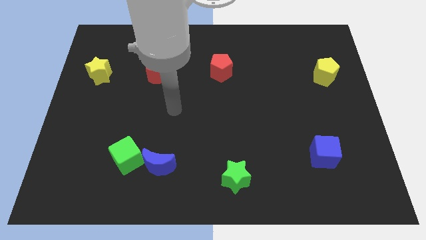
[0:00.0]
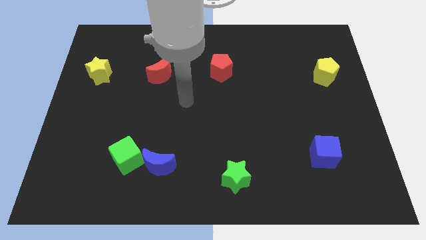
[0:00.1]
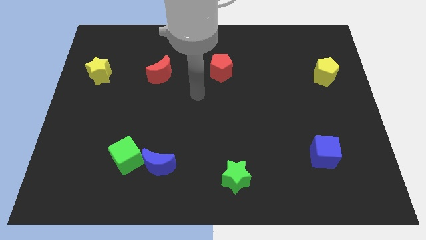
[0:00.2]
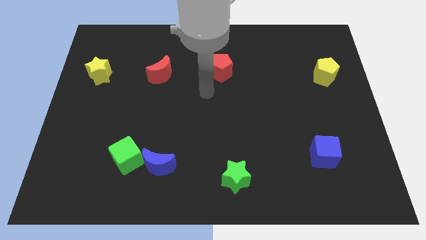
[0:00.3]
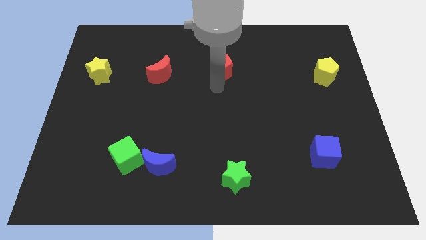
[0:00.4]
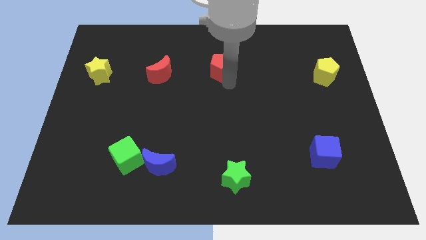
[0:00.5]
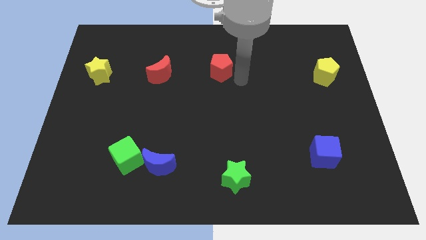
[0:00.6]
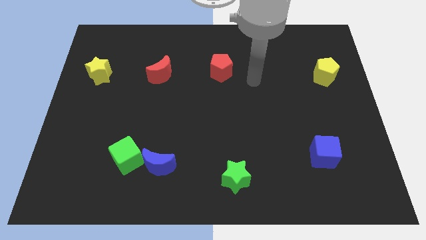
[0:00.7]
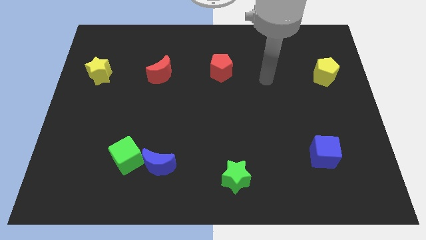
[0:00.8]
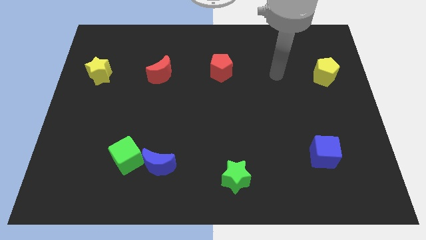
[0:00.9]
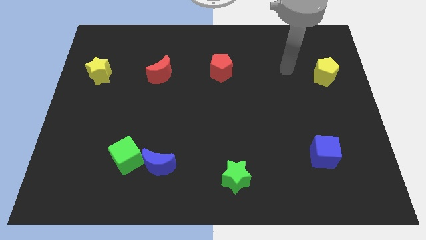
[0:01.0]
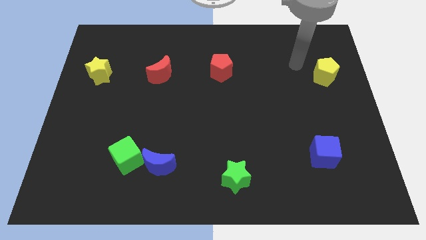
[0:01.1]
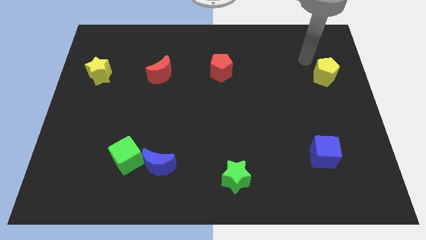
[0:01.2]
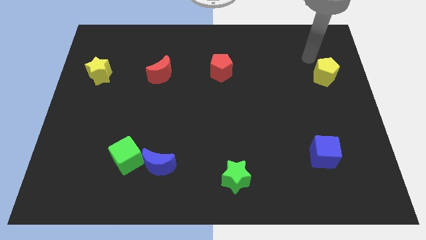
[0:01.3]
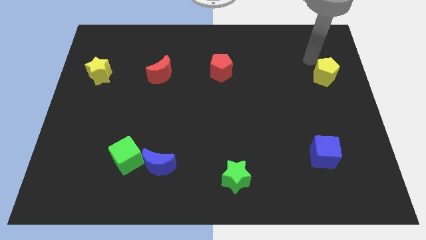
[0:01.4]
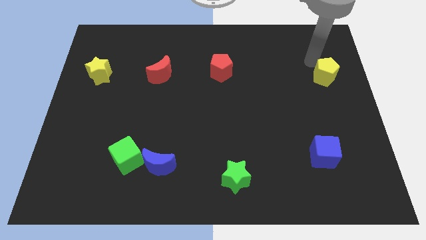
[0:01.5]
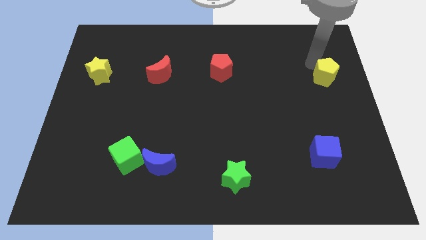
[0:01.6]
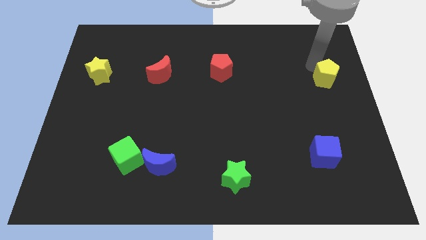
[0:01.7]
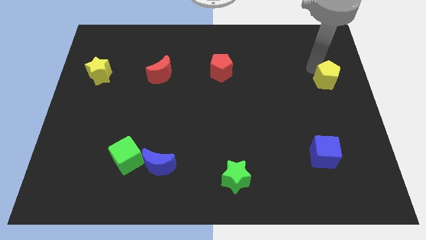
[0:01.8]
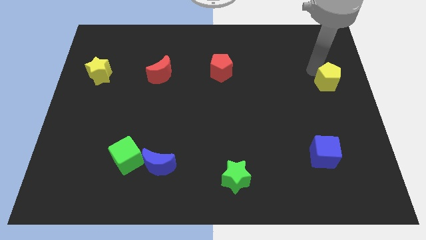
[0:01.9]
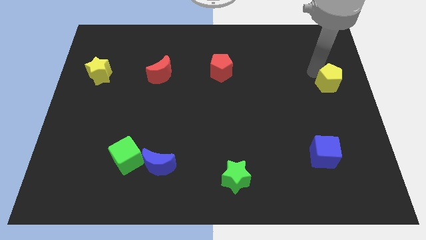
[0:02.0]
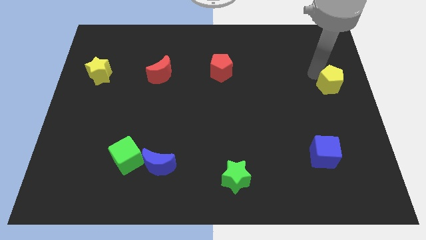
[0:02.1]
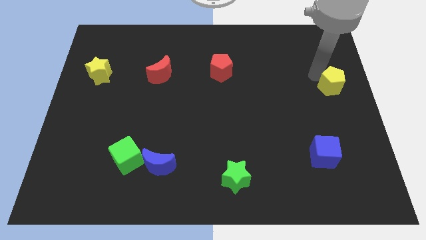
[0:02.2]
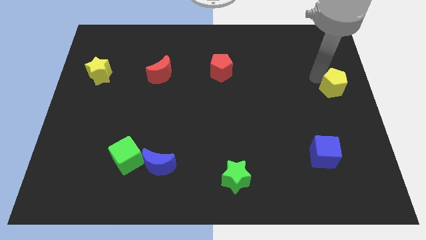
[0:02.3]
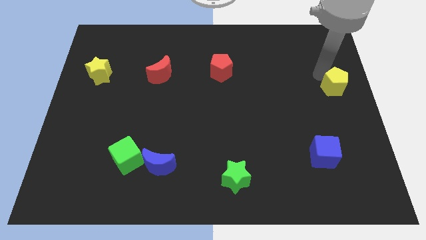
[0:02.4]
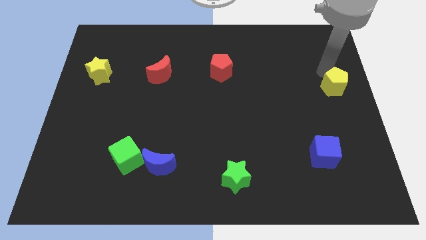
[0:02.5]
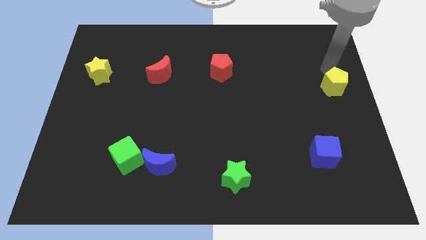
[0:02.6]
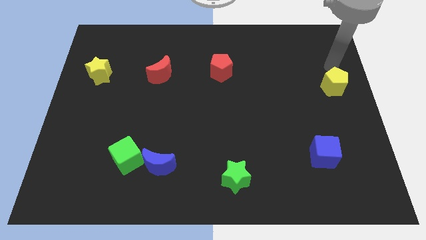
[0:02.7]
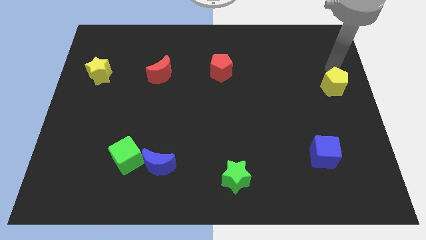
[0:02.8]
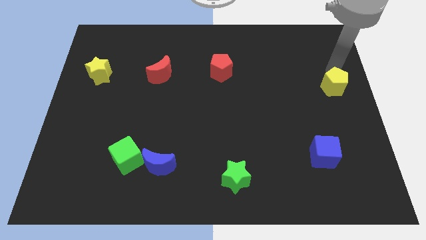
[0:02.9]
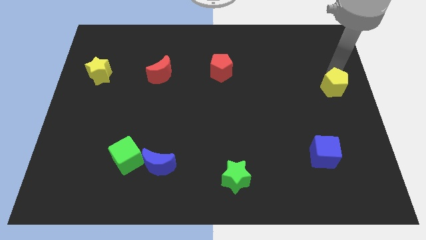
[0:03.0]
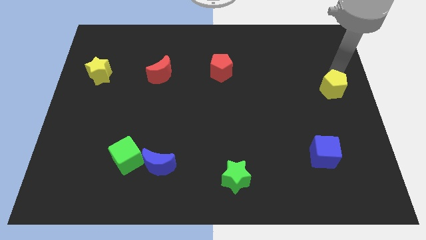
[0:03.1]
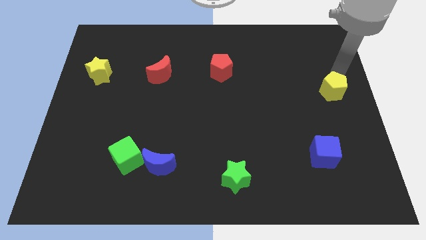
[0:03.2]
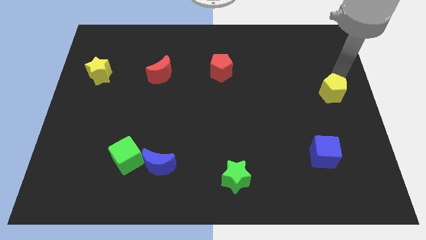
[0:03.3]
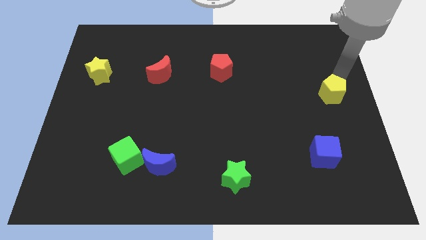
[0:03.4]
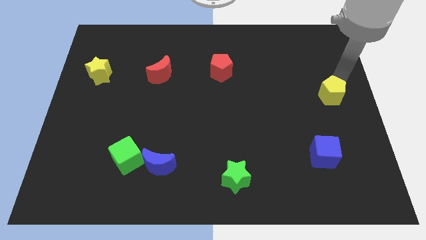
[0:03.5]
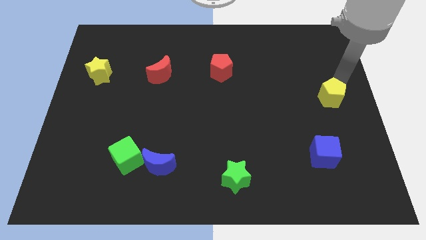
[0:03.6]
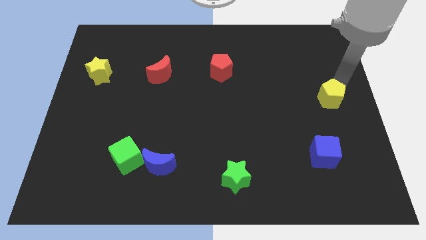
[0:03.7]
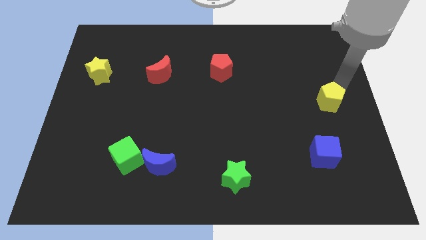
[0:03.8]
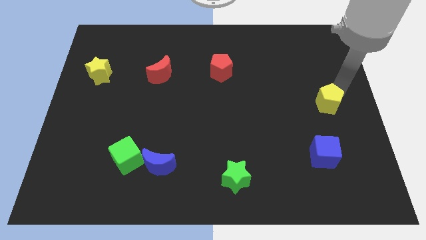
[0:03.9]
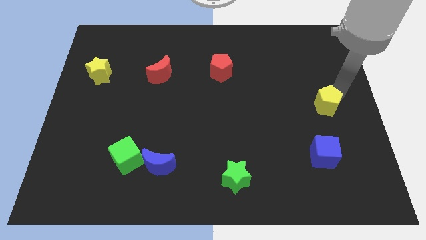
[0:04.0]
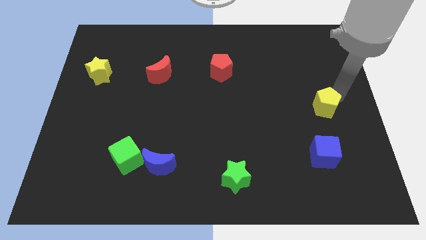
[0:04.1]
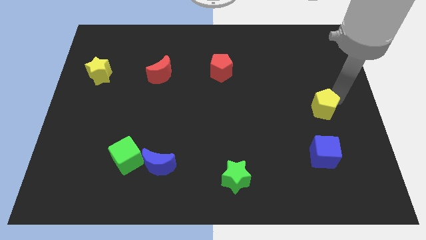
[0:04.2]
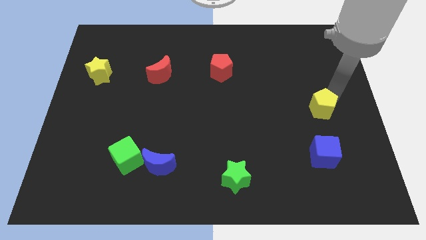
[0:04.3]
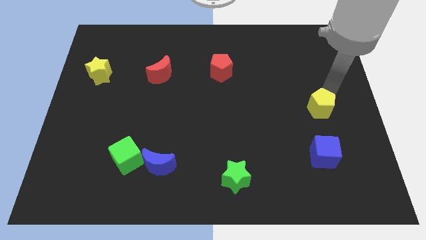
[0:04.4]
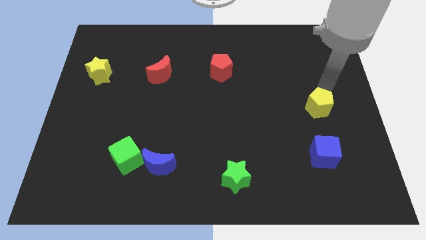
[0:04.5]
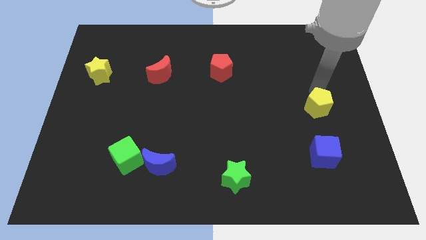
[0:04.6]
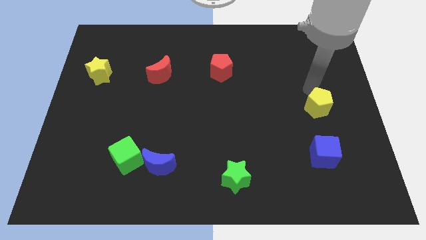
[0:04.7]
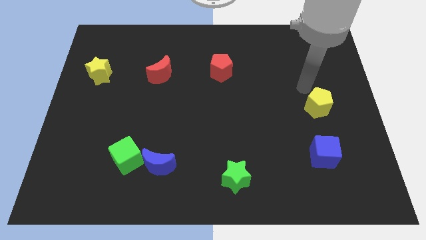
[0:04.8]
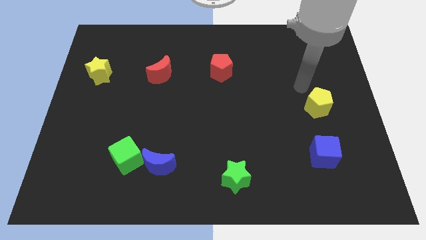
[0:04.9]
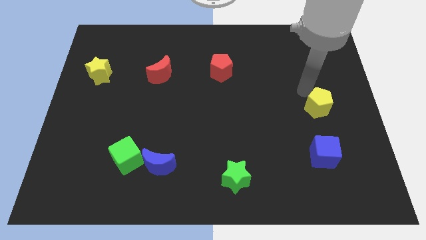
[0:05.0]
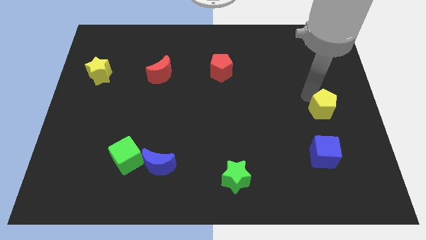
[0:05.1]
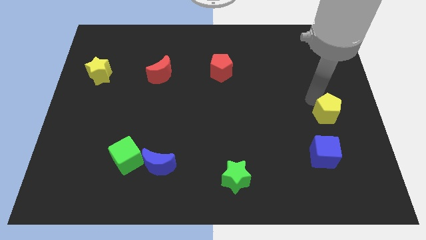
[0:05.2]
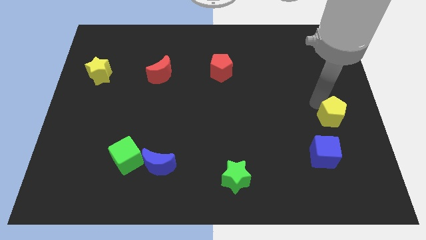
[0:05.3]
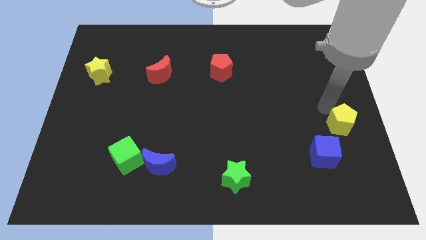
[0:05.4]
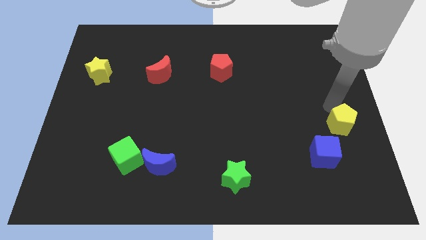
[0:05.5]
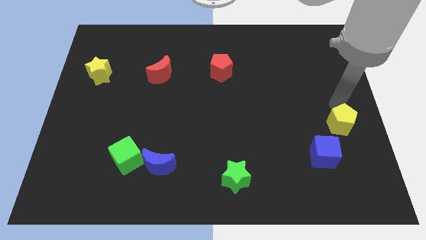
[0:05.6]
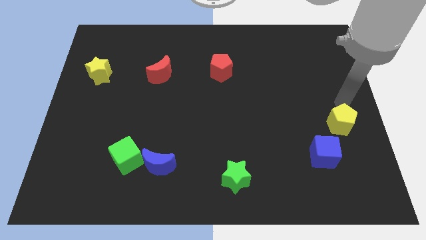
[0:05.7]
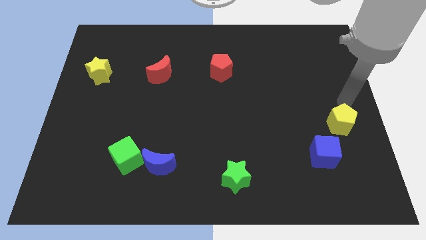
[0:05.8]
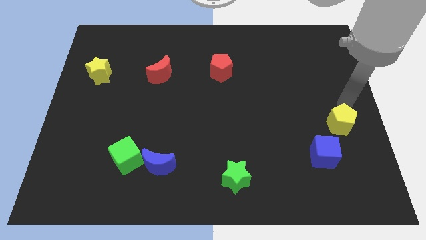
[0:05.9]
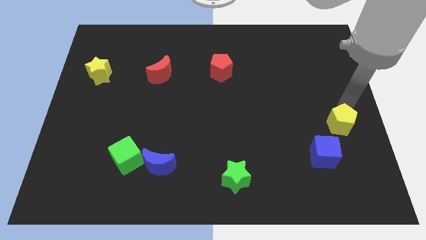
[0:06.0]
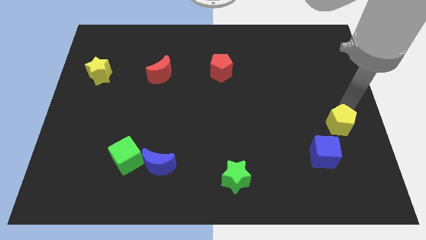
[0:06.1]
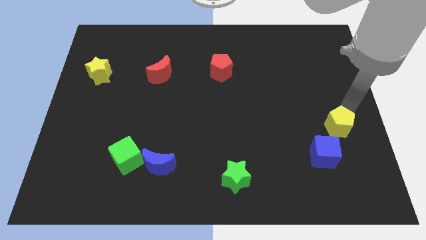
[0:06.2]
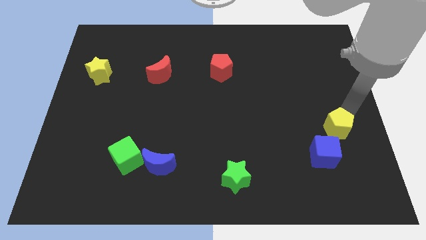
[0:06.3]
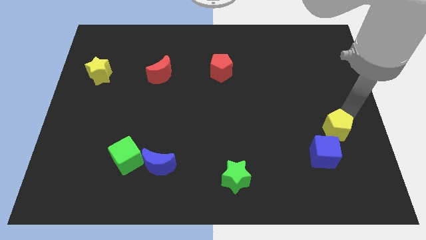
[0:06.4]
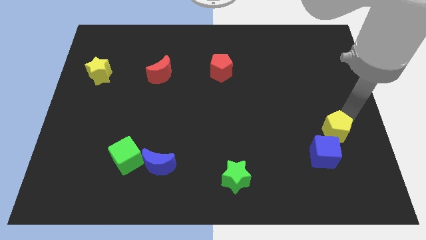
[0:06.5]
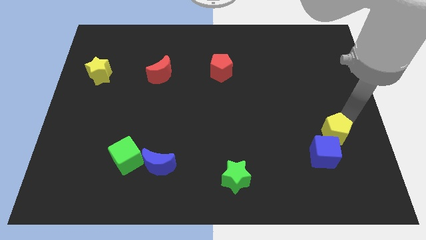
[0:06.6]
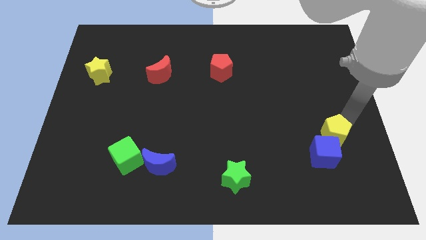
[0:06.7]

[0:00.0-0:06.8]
push the yellow pentagon to the blue cube
